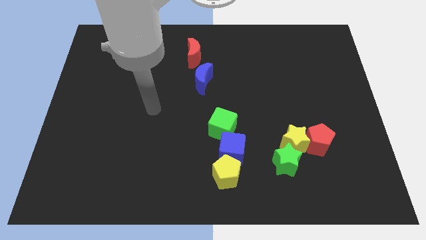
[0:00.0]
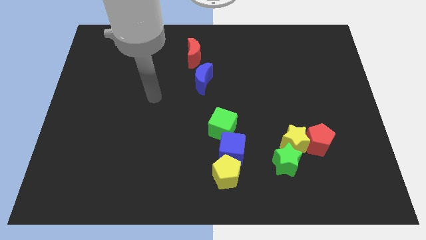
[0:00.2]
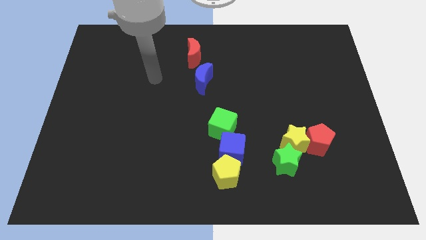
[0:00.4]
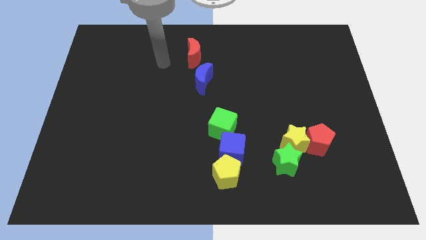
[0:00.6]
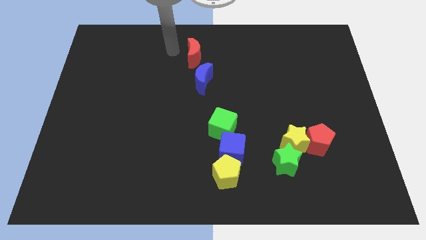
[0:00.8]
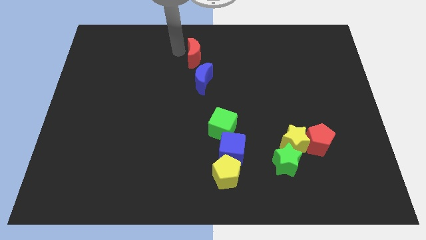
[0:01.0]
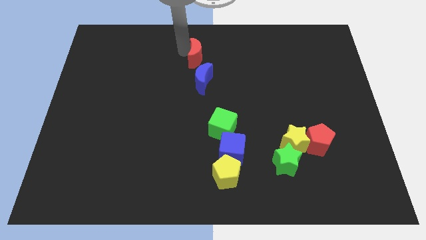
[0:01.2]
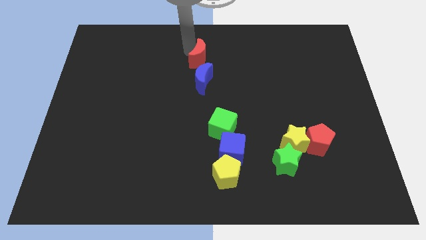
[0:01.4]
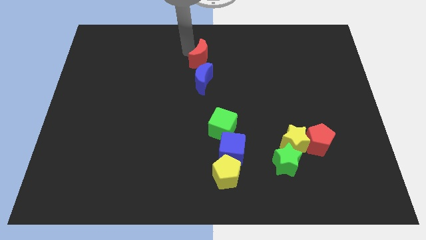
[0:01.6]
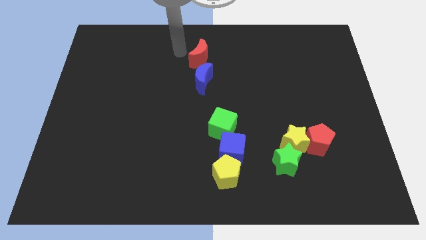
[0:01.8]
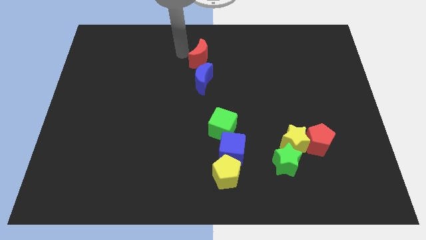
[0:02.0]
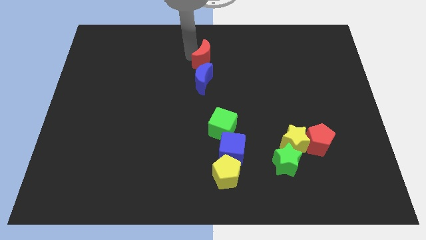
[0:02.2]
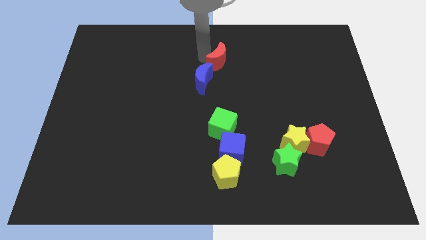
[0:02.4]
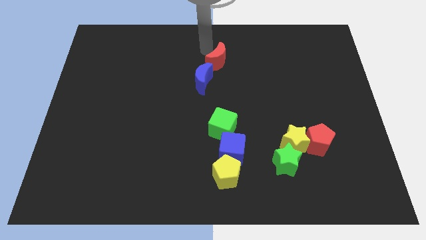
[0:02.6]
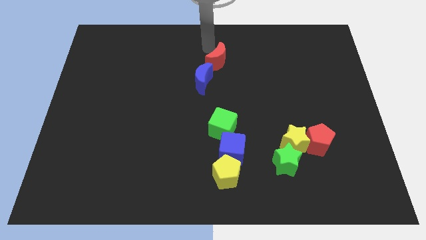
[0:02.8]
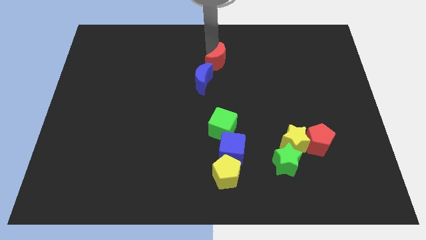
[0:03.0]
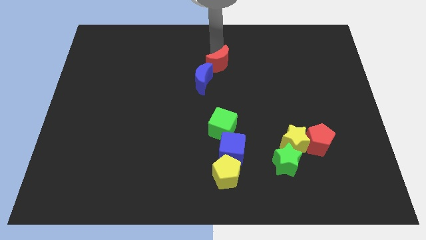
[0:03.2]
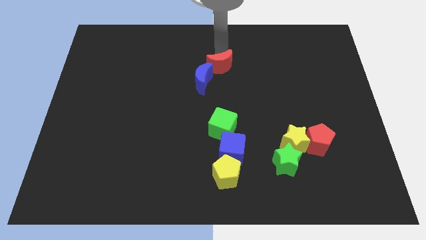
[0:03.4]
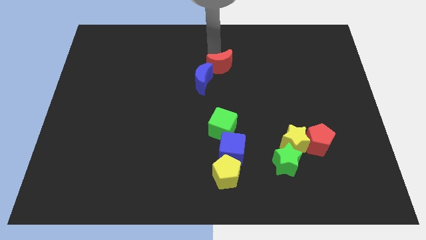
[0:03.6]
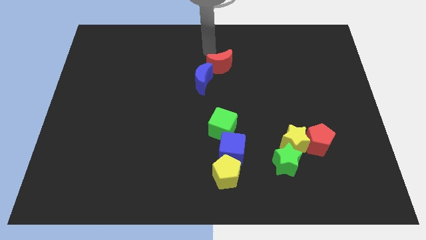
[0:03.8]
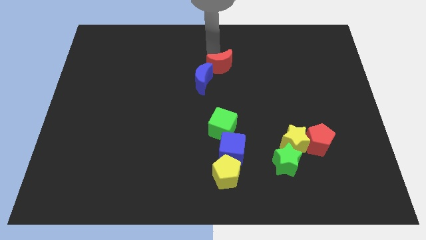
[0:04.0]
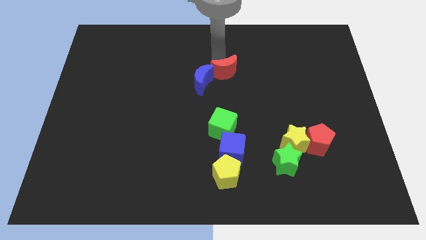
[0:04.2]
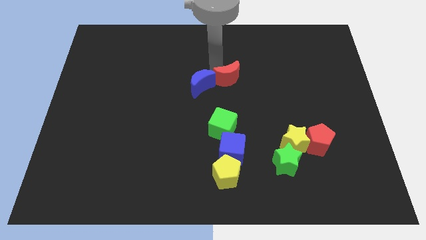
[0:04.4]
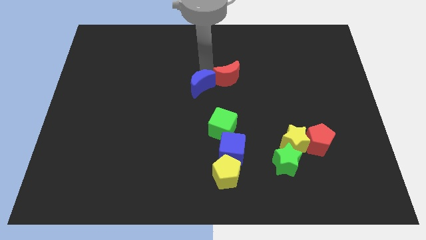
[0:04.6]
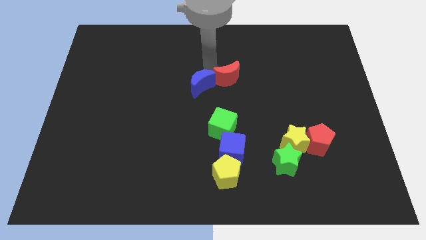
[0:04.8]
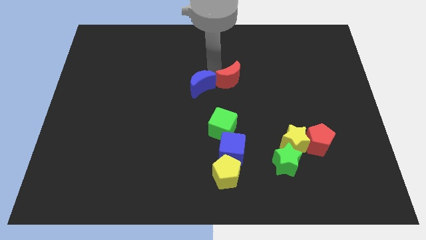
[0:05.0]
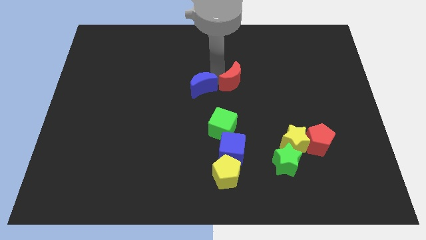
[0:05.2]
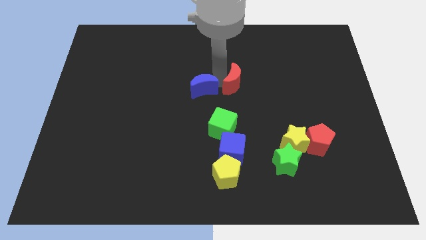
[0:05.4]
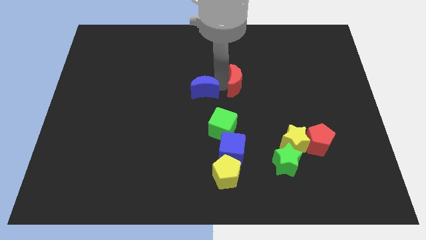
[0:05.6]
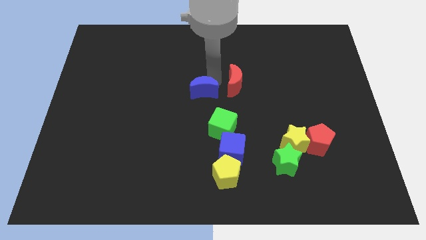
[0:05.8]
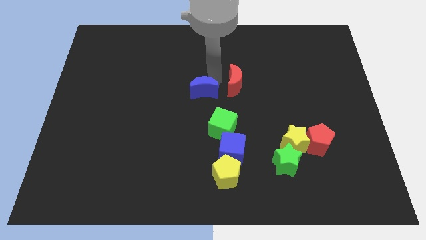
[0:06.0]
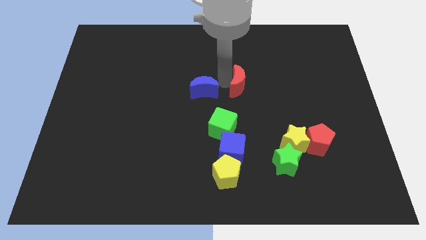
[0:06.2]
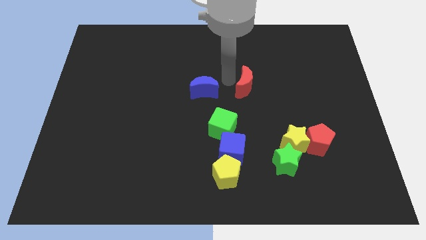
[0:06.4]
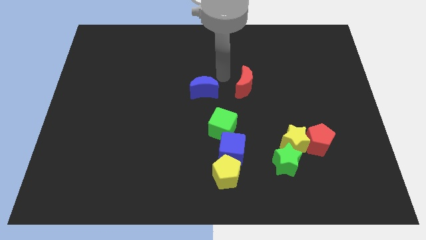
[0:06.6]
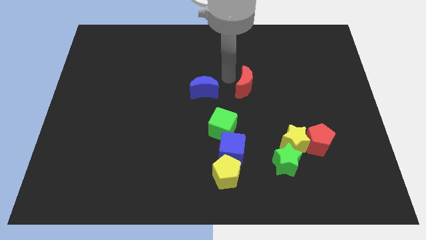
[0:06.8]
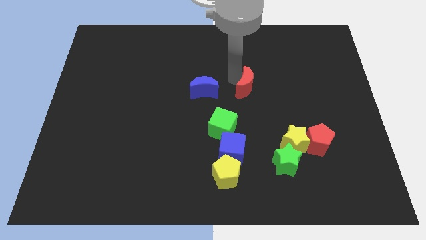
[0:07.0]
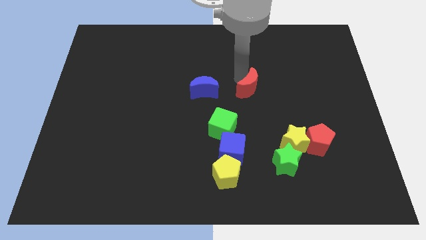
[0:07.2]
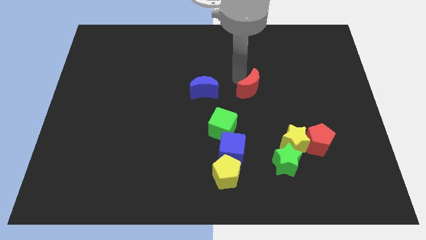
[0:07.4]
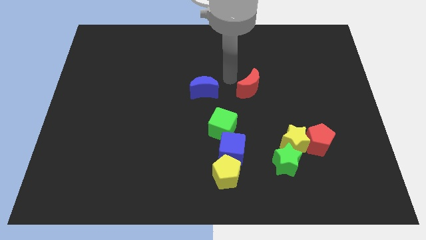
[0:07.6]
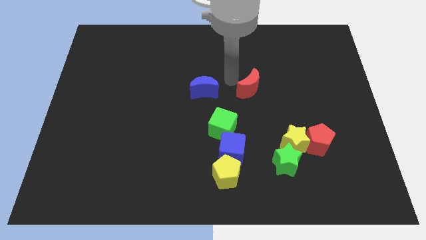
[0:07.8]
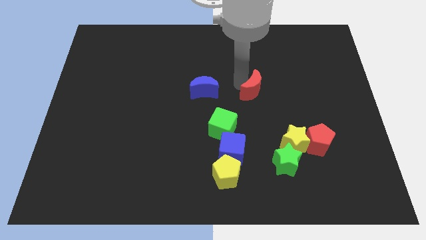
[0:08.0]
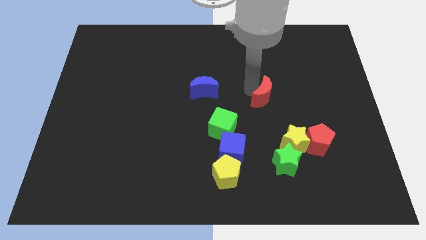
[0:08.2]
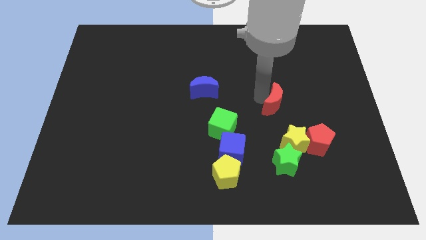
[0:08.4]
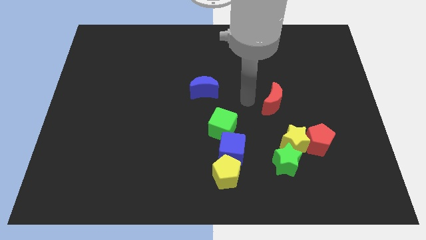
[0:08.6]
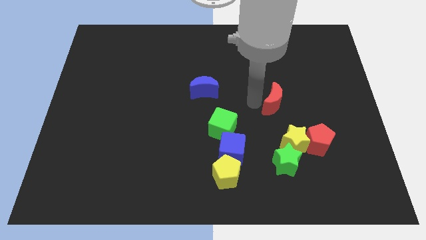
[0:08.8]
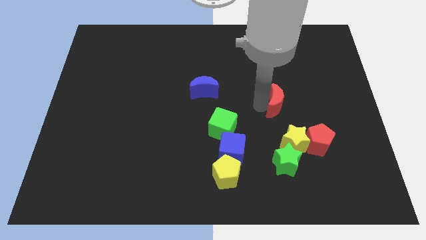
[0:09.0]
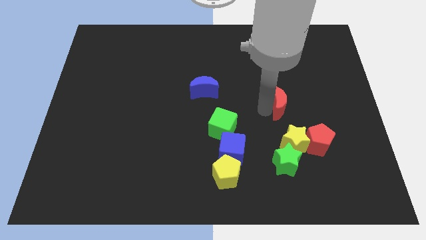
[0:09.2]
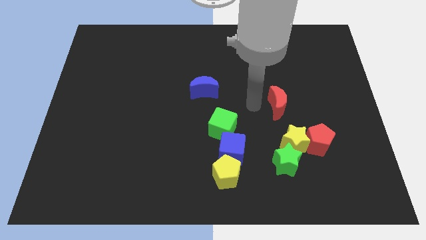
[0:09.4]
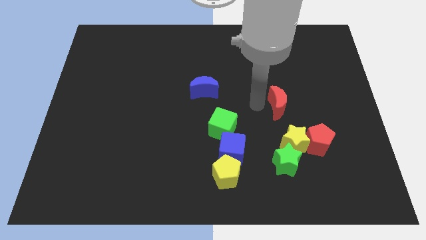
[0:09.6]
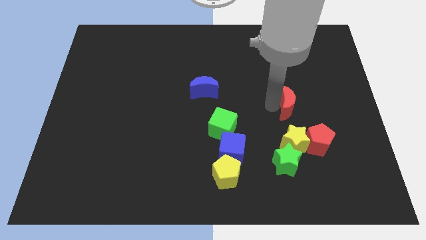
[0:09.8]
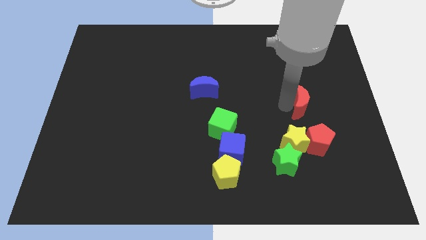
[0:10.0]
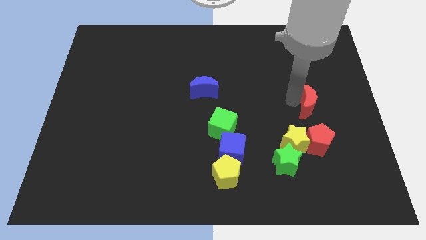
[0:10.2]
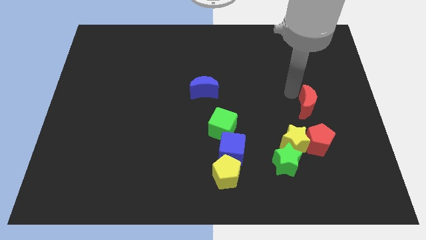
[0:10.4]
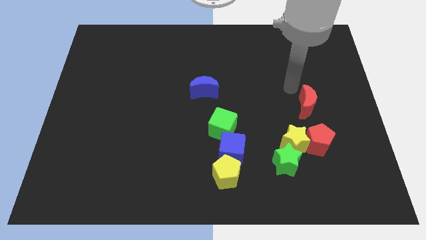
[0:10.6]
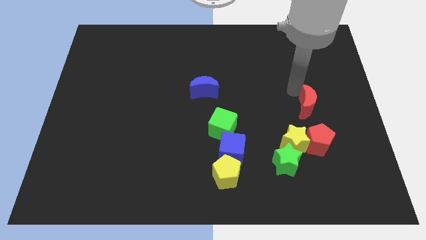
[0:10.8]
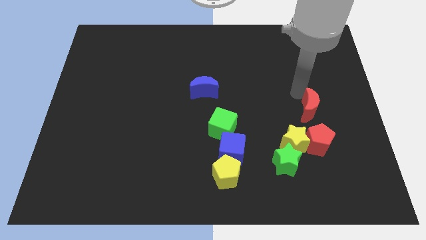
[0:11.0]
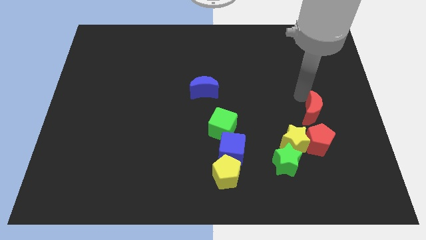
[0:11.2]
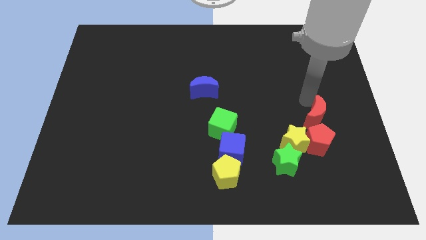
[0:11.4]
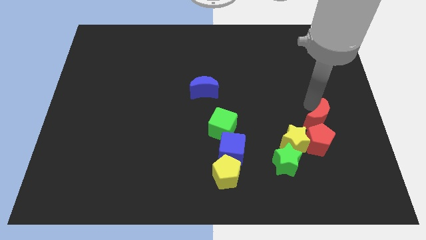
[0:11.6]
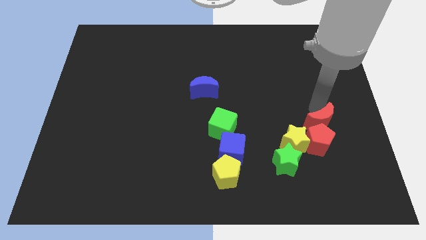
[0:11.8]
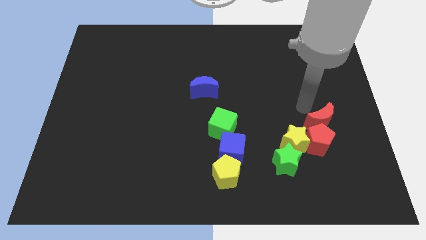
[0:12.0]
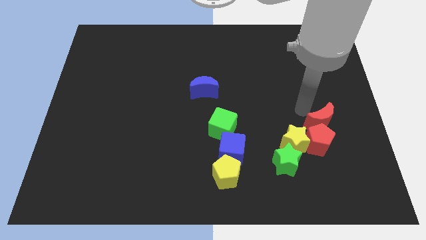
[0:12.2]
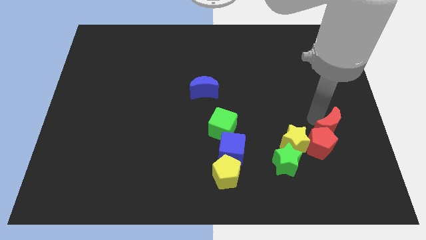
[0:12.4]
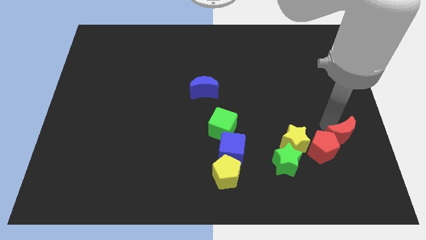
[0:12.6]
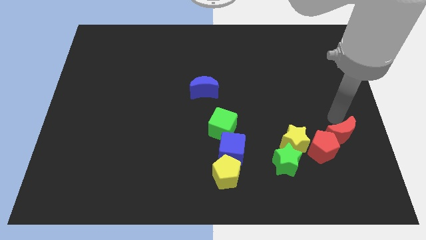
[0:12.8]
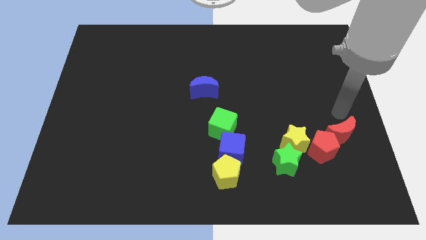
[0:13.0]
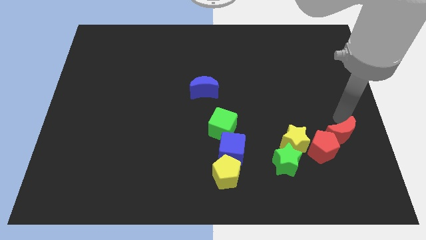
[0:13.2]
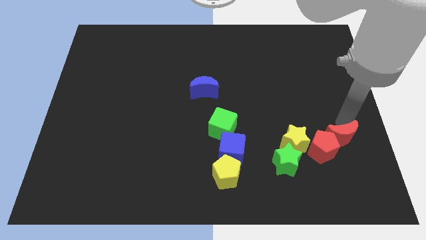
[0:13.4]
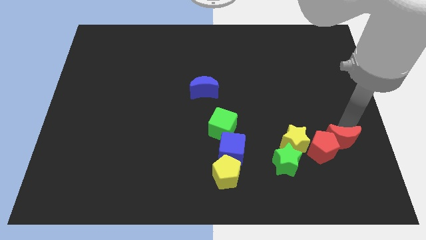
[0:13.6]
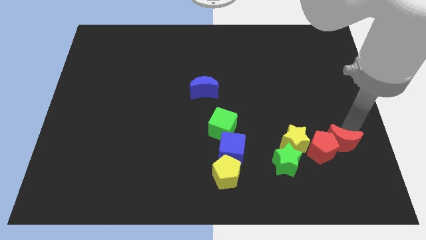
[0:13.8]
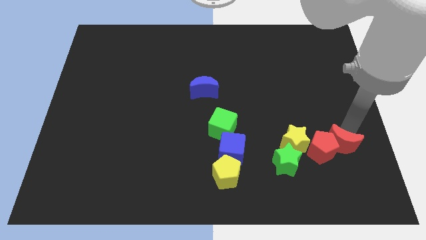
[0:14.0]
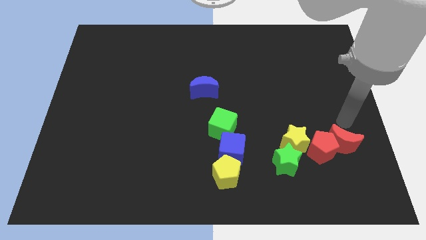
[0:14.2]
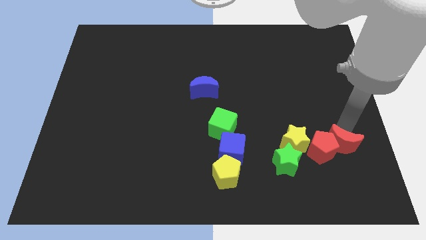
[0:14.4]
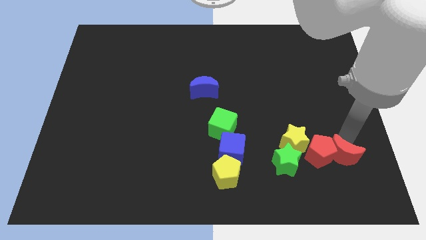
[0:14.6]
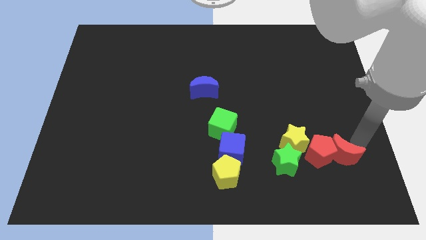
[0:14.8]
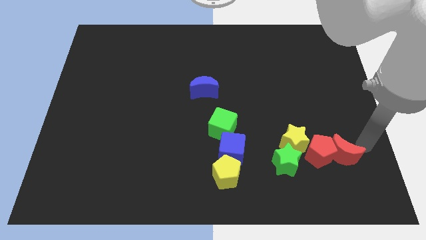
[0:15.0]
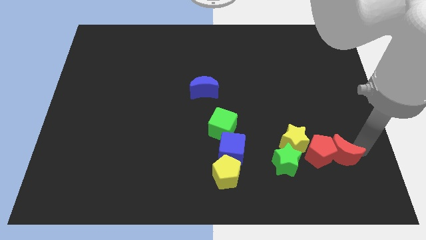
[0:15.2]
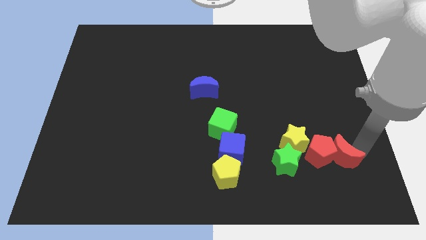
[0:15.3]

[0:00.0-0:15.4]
slide the red moon to the bottom right side of the yellow star
